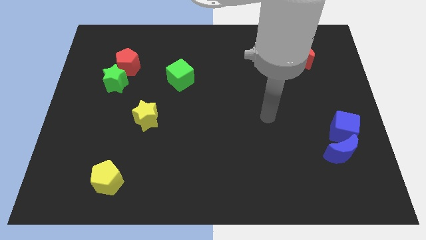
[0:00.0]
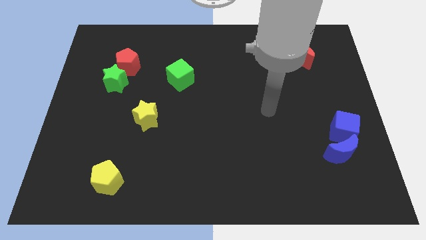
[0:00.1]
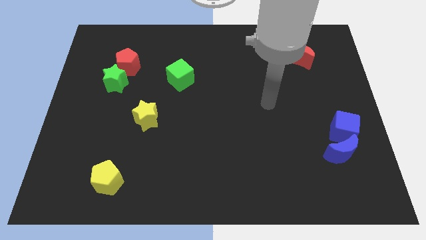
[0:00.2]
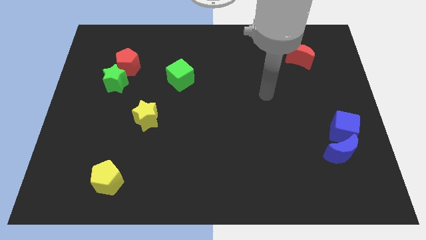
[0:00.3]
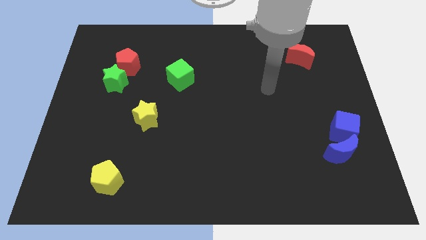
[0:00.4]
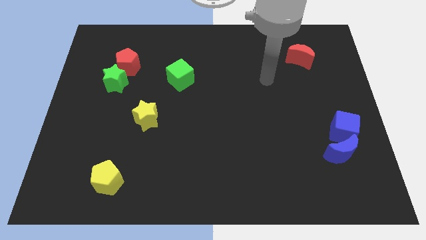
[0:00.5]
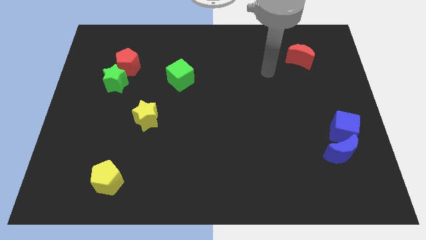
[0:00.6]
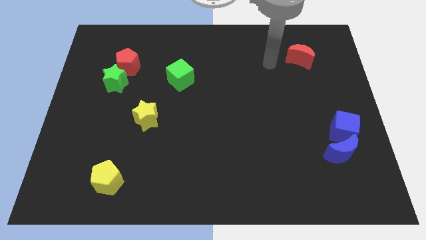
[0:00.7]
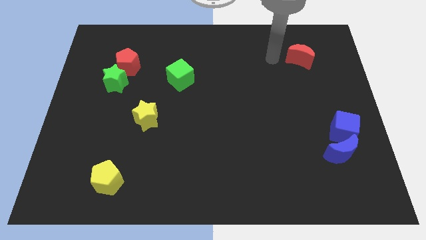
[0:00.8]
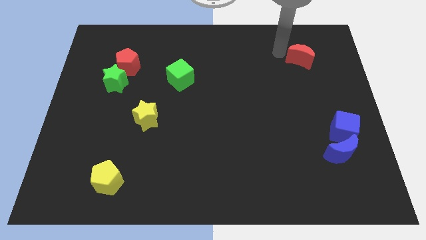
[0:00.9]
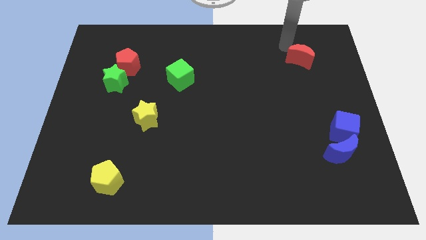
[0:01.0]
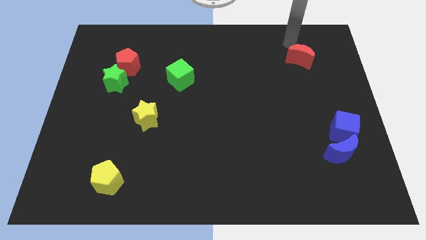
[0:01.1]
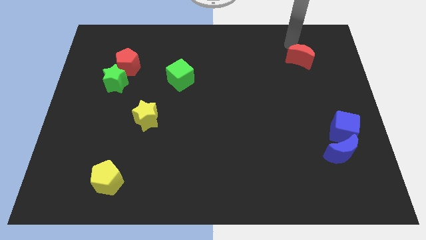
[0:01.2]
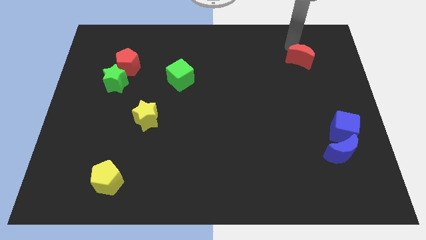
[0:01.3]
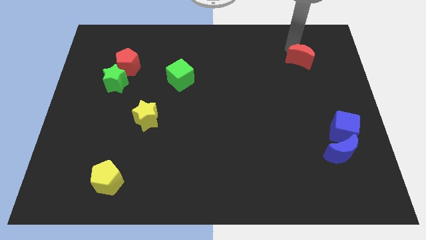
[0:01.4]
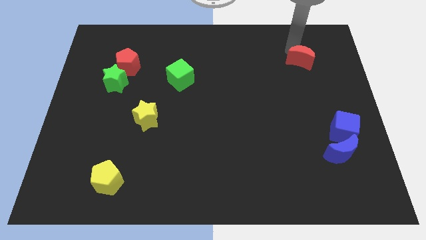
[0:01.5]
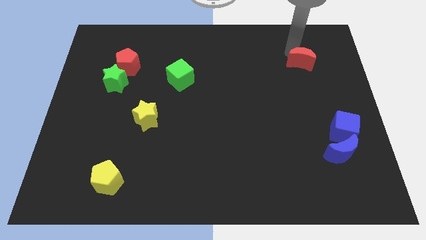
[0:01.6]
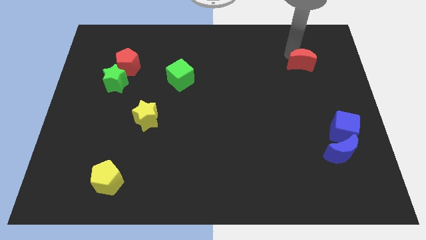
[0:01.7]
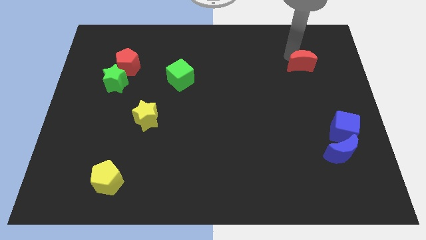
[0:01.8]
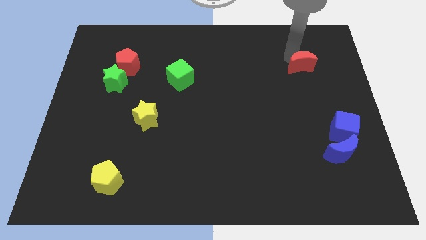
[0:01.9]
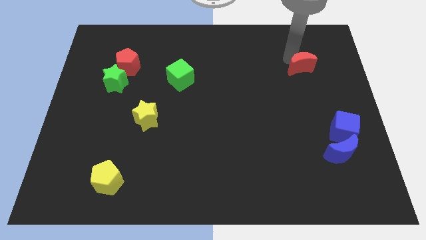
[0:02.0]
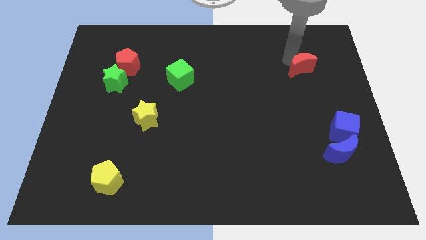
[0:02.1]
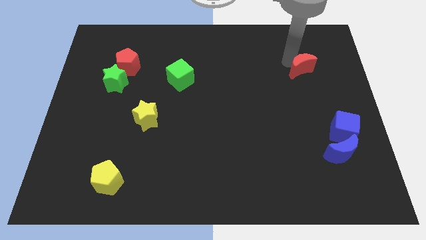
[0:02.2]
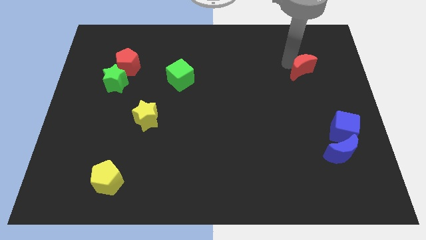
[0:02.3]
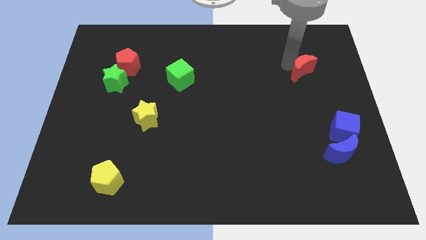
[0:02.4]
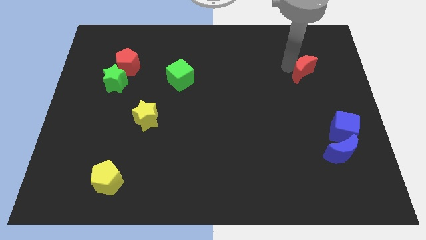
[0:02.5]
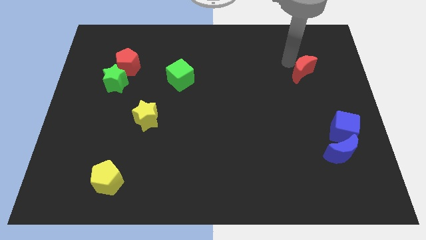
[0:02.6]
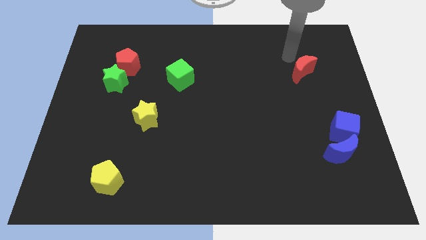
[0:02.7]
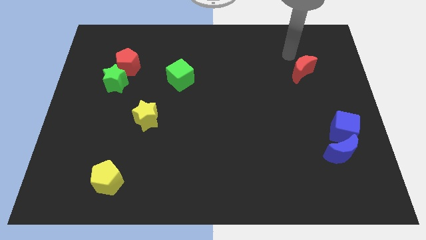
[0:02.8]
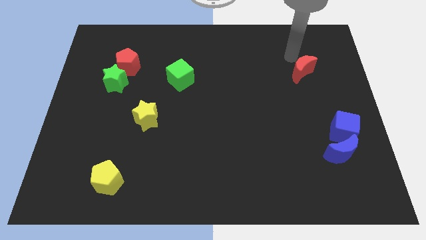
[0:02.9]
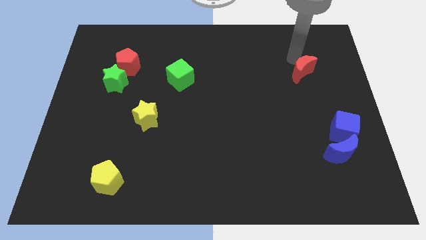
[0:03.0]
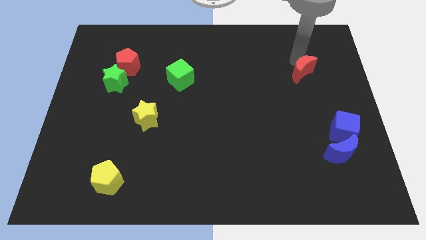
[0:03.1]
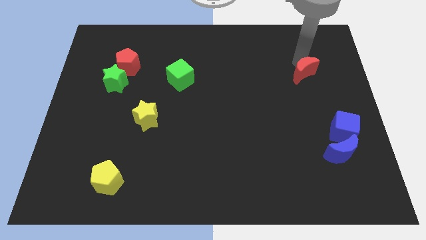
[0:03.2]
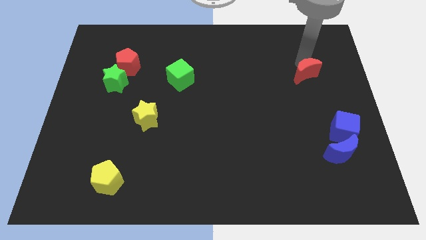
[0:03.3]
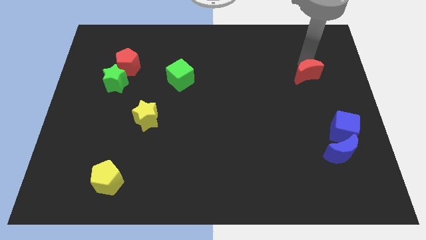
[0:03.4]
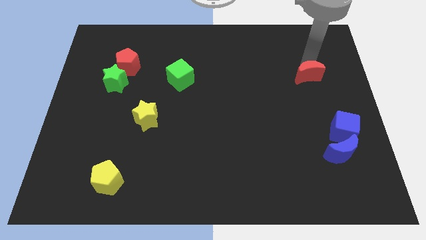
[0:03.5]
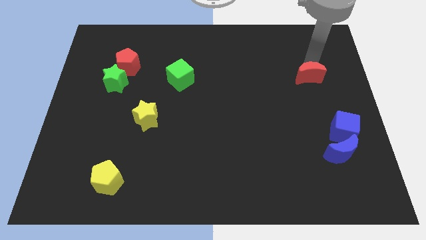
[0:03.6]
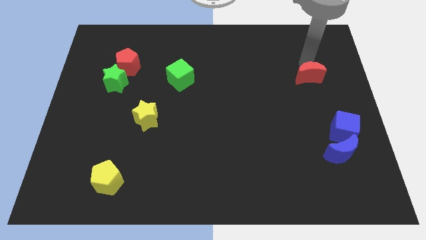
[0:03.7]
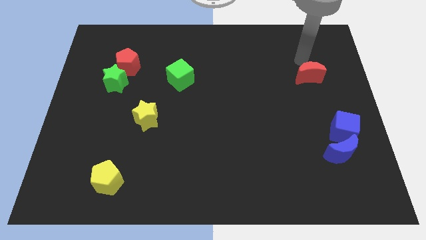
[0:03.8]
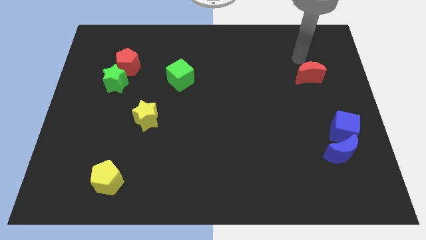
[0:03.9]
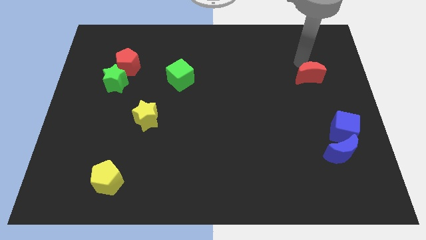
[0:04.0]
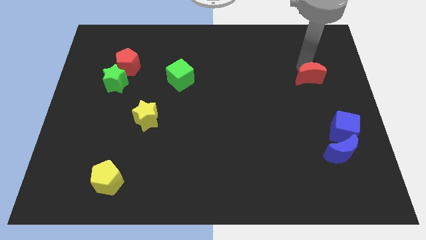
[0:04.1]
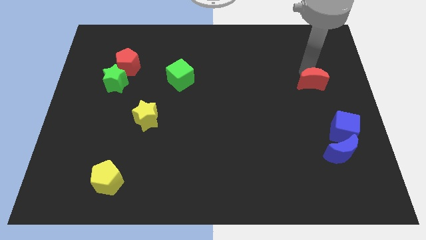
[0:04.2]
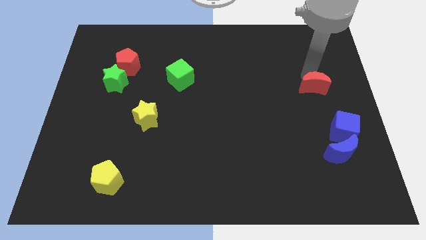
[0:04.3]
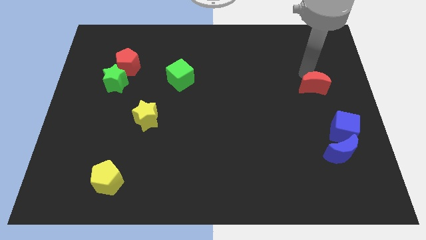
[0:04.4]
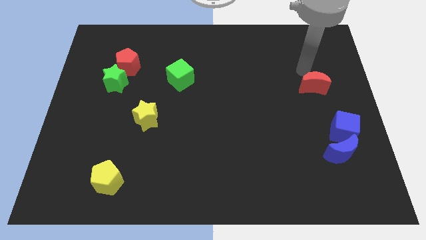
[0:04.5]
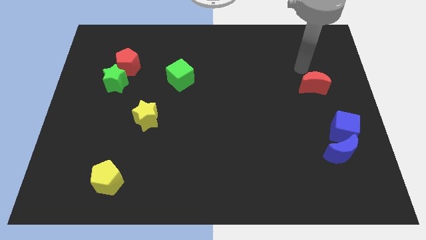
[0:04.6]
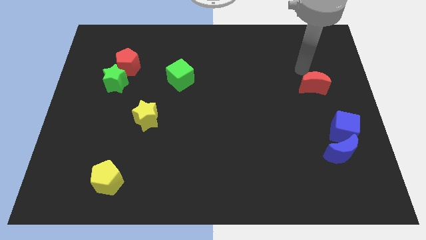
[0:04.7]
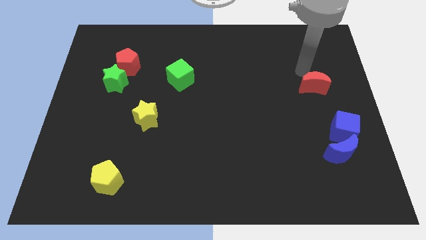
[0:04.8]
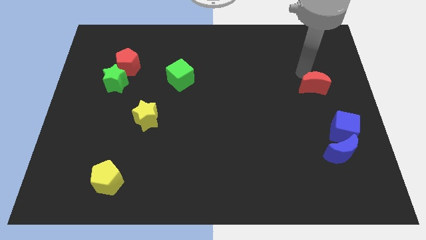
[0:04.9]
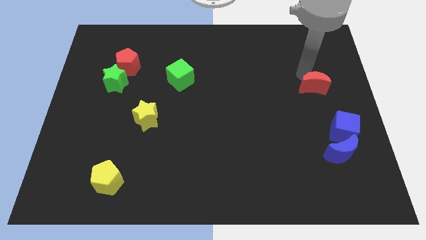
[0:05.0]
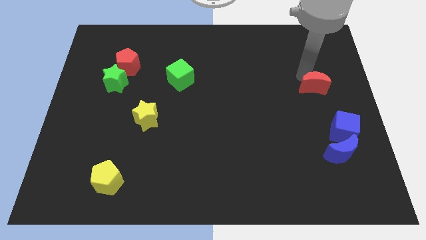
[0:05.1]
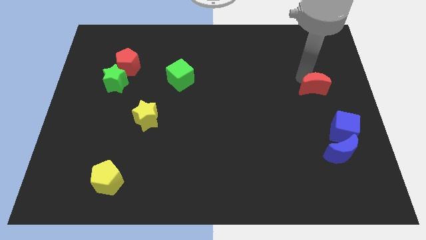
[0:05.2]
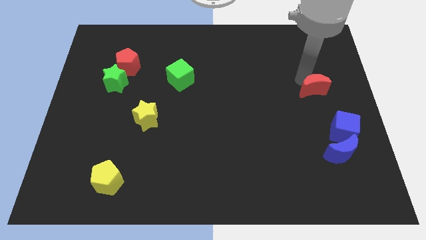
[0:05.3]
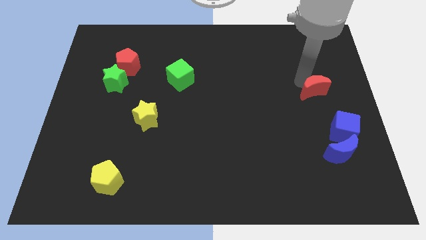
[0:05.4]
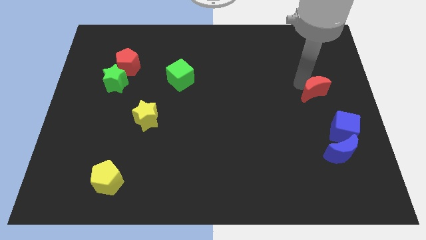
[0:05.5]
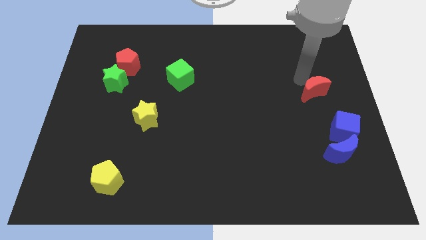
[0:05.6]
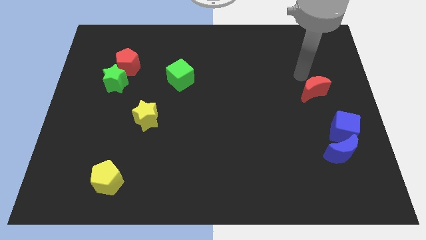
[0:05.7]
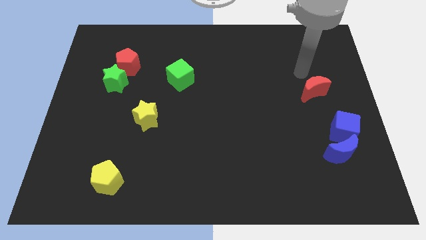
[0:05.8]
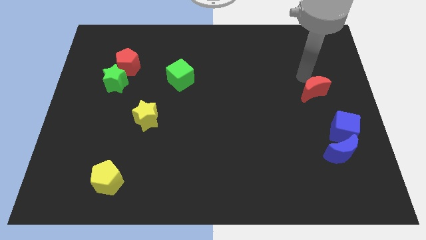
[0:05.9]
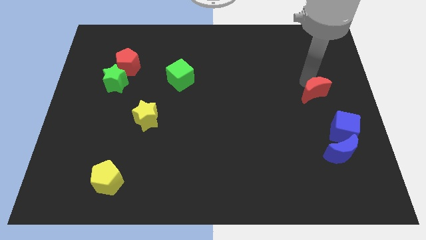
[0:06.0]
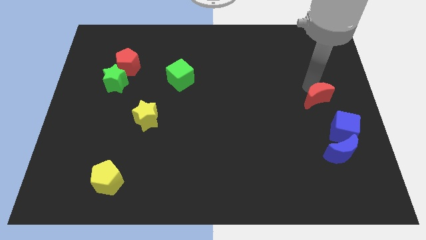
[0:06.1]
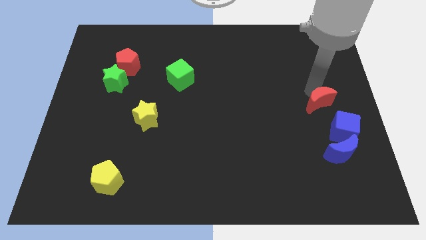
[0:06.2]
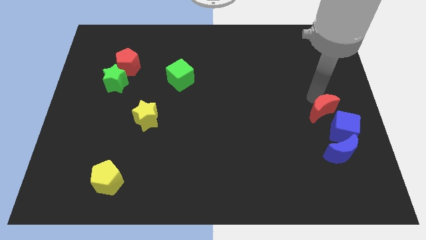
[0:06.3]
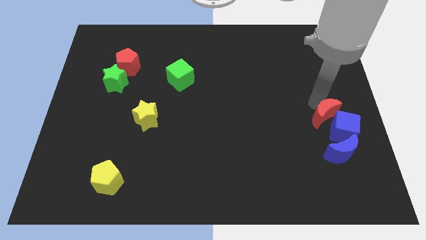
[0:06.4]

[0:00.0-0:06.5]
move the red moon towards the blue cube

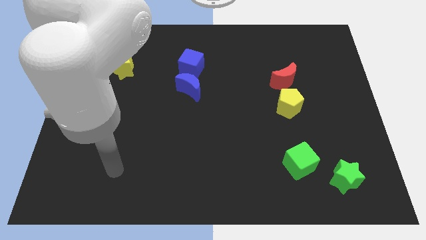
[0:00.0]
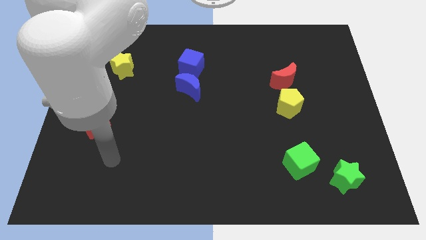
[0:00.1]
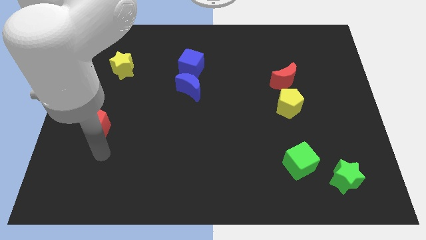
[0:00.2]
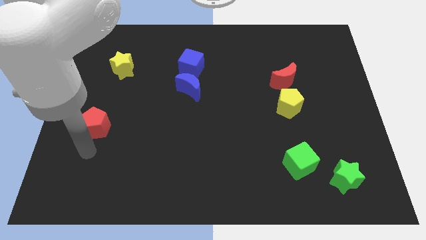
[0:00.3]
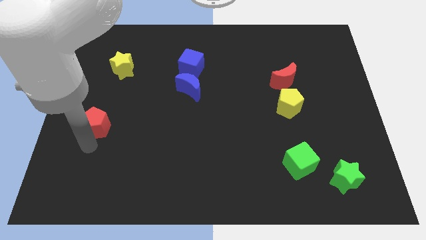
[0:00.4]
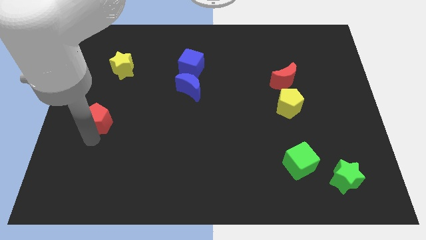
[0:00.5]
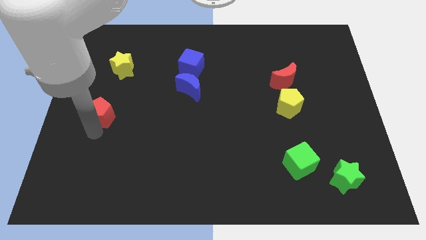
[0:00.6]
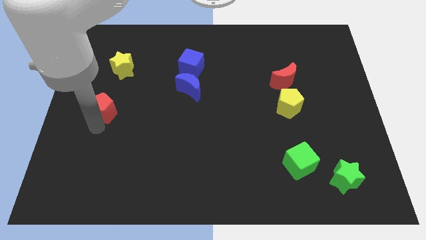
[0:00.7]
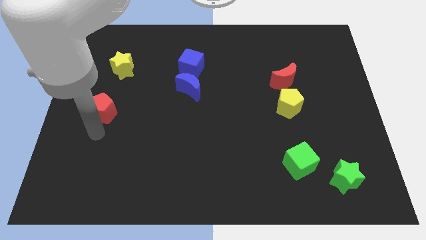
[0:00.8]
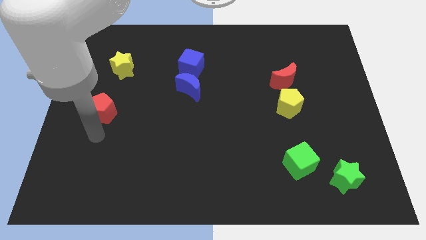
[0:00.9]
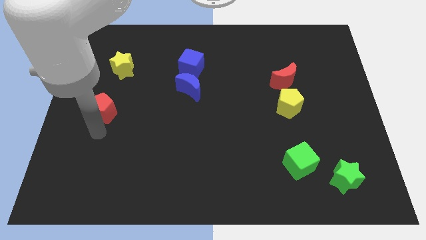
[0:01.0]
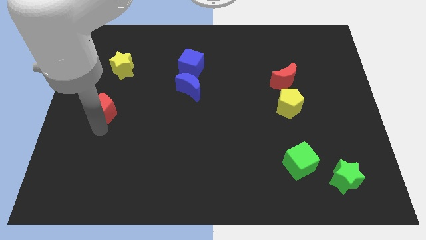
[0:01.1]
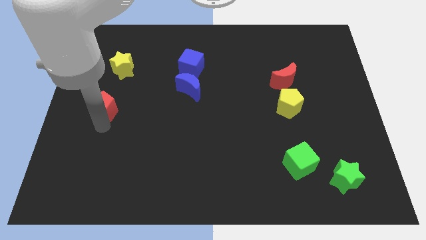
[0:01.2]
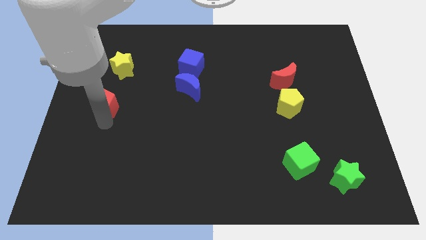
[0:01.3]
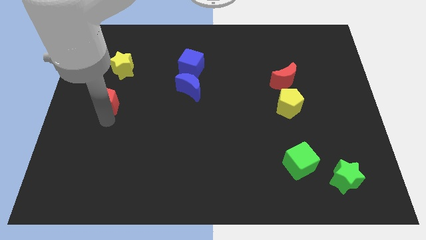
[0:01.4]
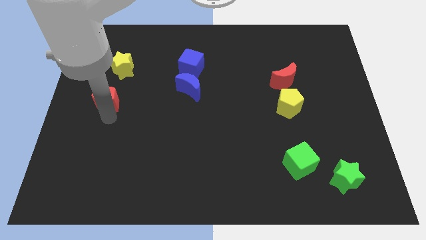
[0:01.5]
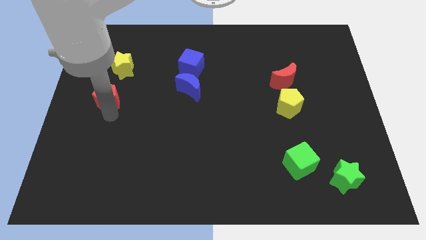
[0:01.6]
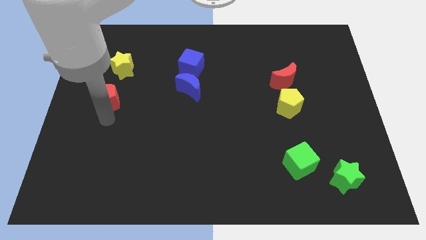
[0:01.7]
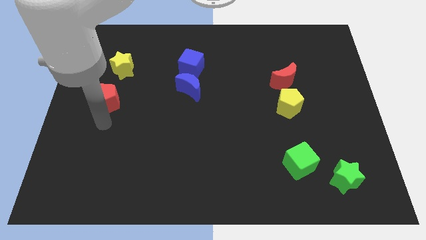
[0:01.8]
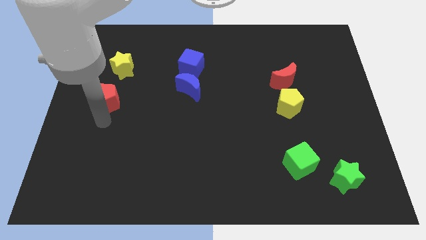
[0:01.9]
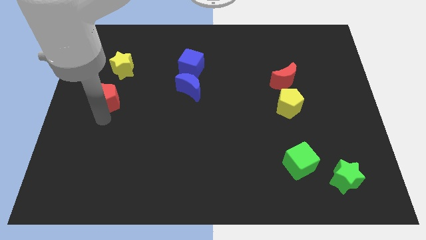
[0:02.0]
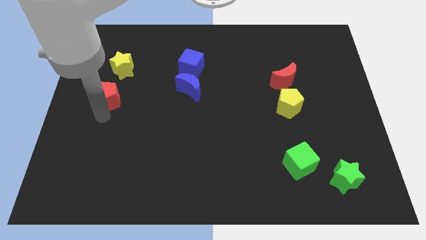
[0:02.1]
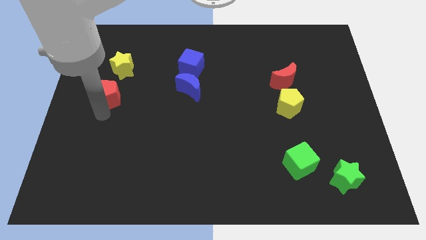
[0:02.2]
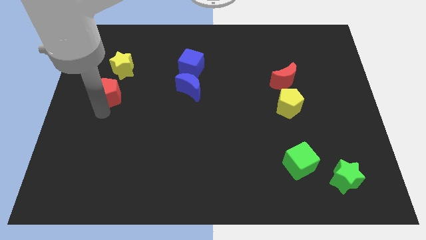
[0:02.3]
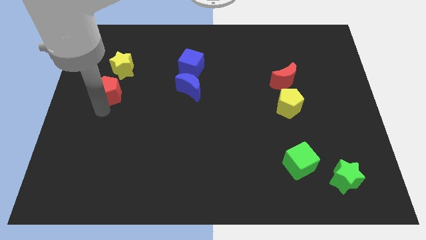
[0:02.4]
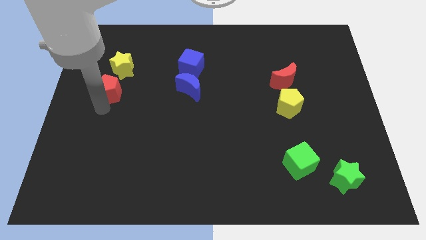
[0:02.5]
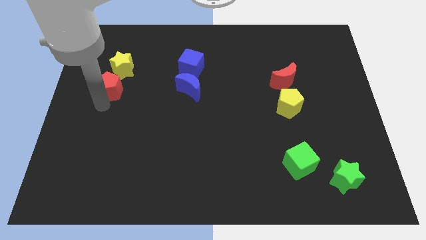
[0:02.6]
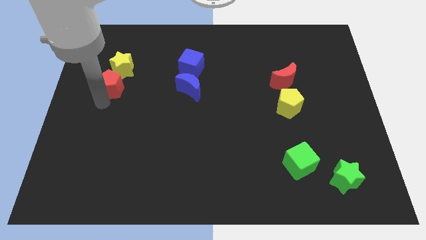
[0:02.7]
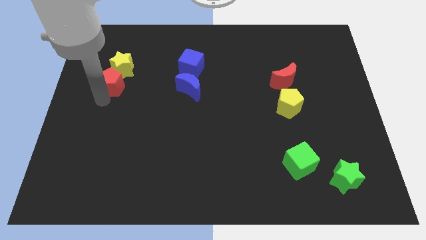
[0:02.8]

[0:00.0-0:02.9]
slide the red pentagon next to the yellow star
